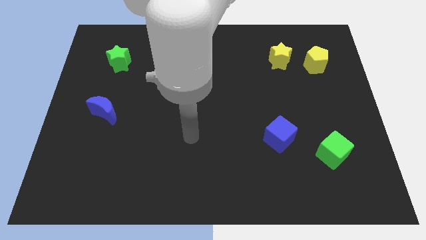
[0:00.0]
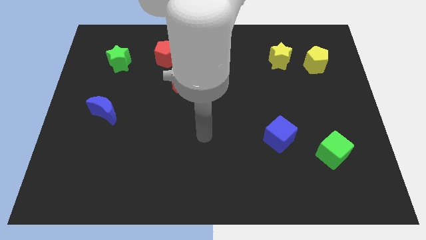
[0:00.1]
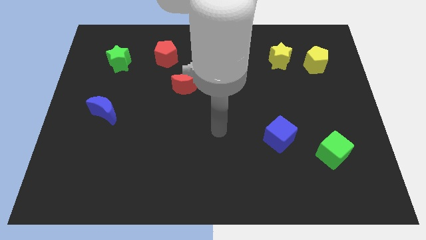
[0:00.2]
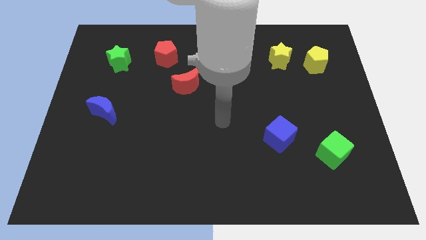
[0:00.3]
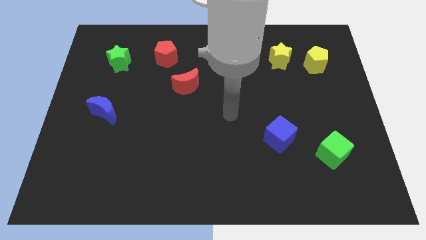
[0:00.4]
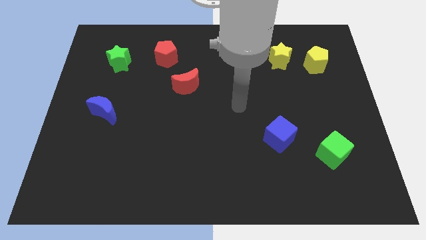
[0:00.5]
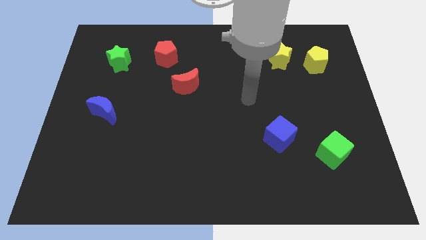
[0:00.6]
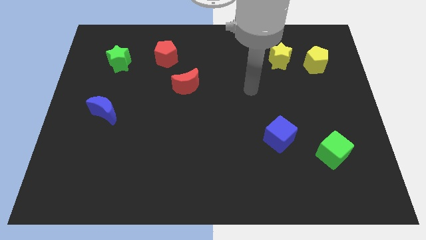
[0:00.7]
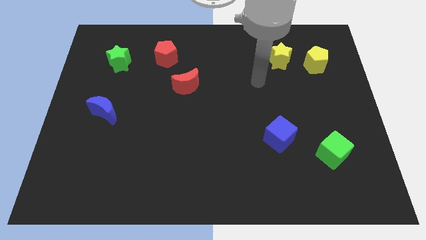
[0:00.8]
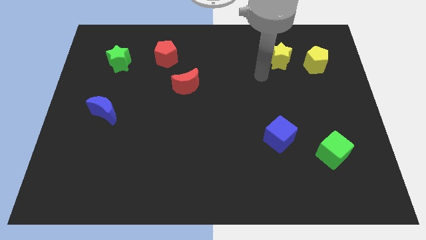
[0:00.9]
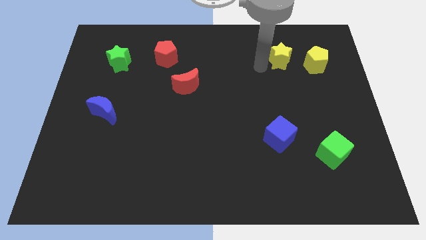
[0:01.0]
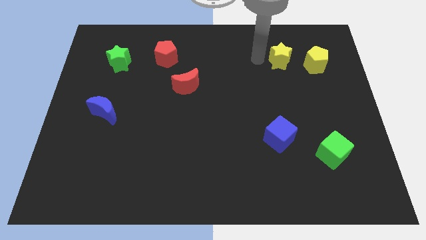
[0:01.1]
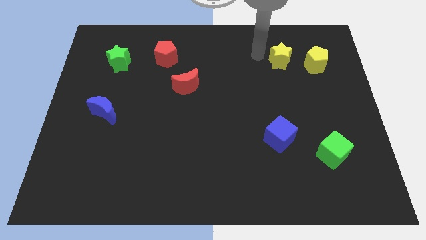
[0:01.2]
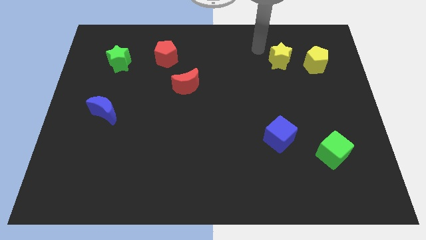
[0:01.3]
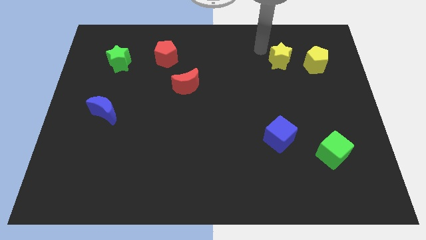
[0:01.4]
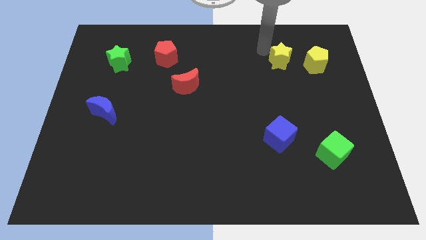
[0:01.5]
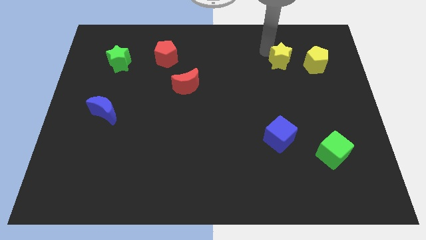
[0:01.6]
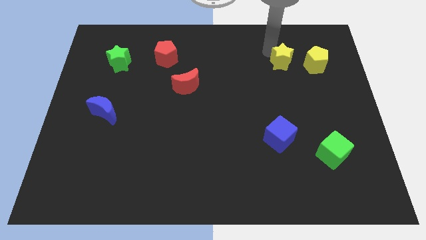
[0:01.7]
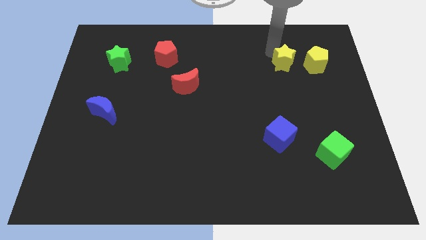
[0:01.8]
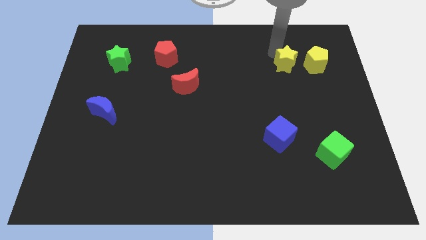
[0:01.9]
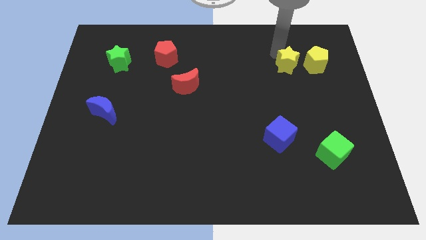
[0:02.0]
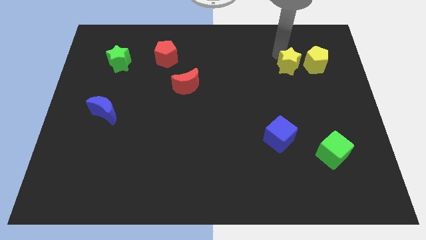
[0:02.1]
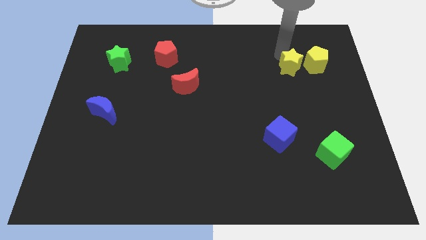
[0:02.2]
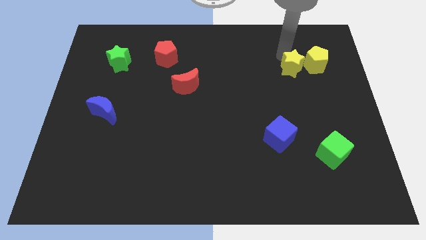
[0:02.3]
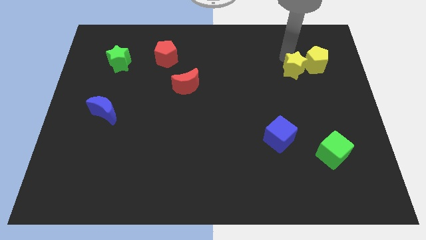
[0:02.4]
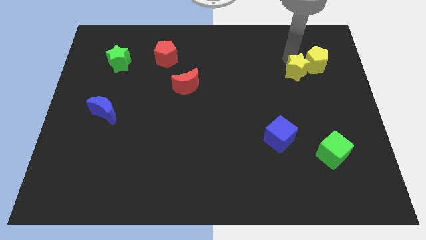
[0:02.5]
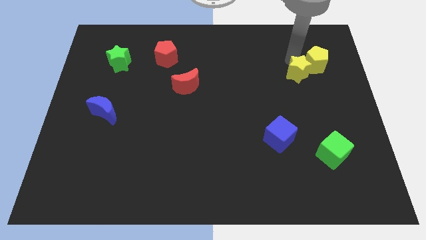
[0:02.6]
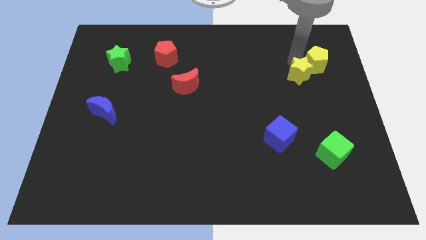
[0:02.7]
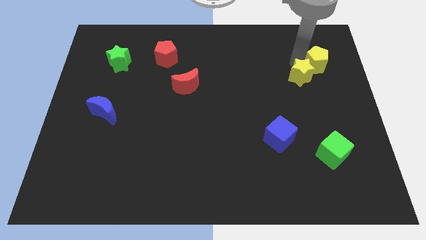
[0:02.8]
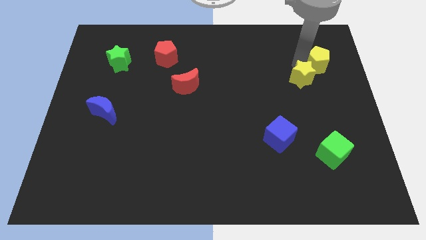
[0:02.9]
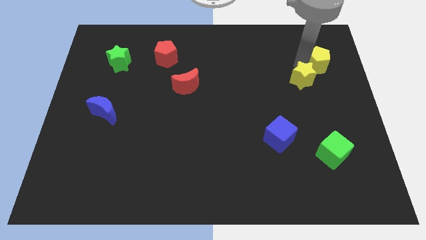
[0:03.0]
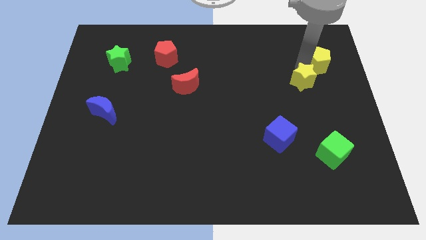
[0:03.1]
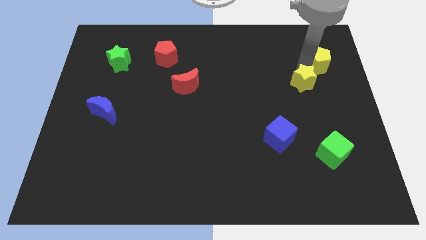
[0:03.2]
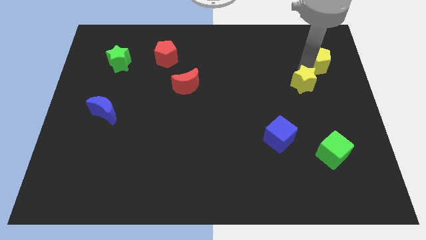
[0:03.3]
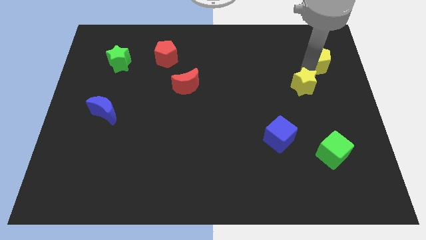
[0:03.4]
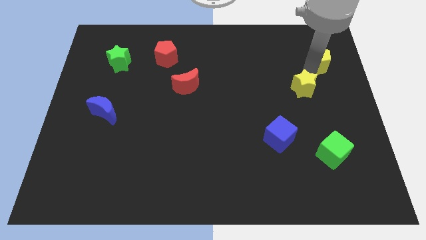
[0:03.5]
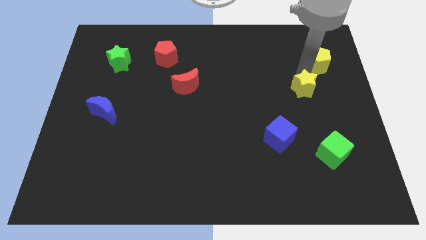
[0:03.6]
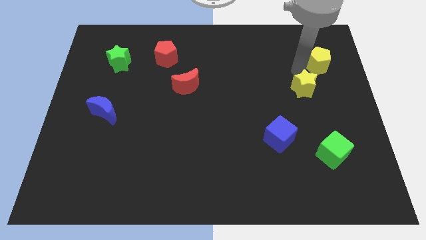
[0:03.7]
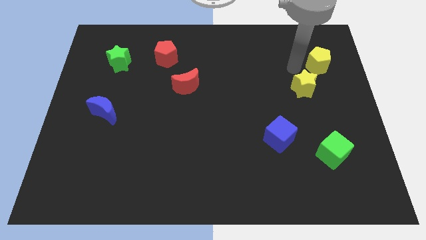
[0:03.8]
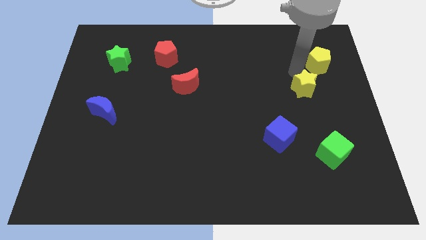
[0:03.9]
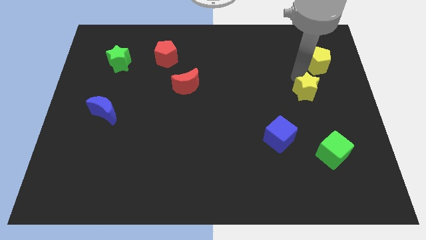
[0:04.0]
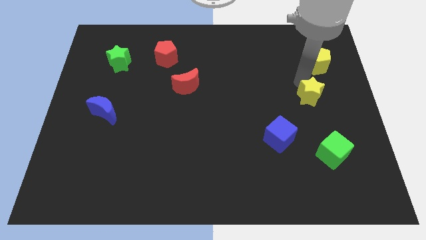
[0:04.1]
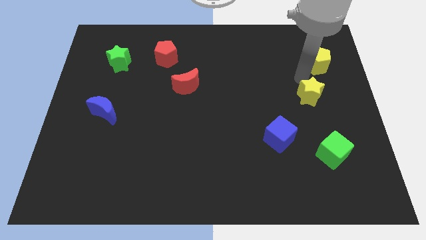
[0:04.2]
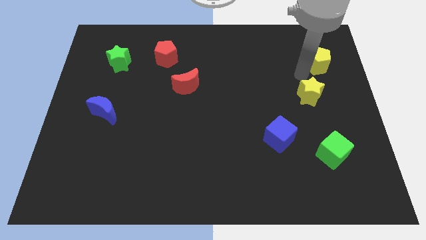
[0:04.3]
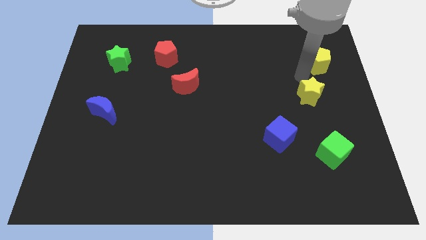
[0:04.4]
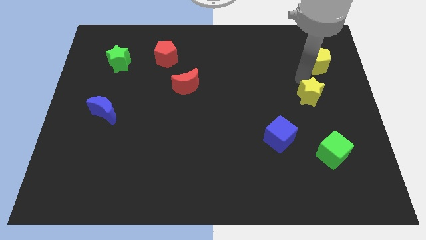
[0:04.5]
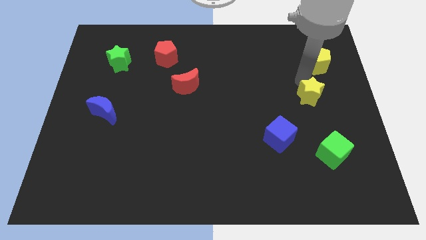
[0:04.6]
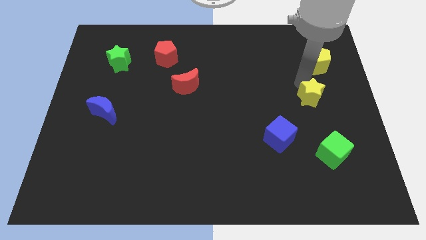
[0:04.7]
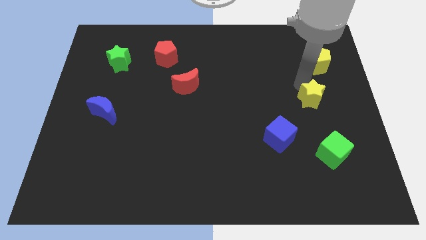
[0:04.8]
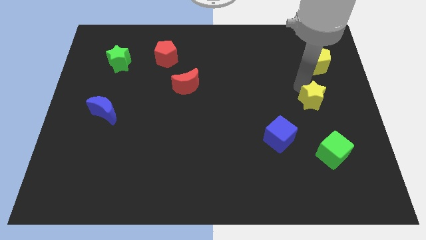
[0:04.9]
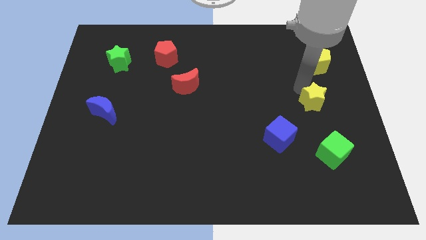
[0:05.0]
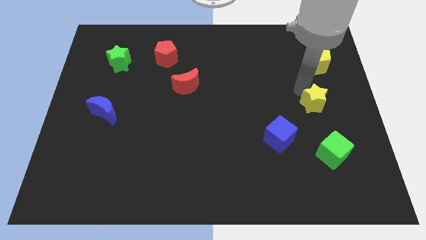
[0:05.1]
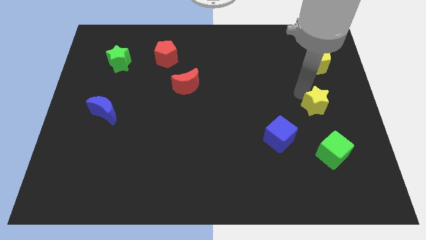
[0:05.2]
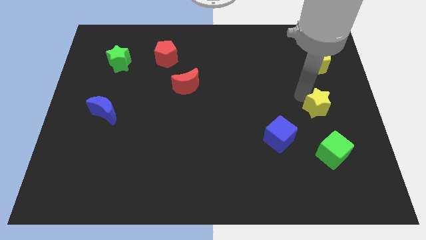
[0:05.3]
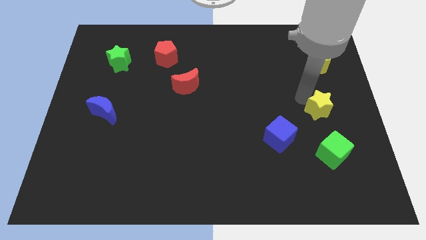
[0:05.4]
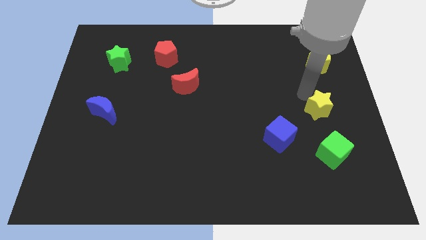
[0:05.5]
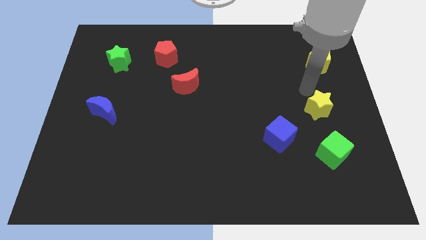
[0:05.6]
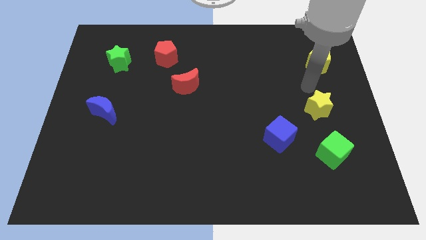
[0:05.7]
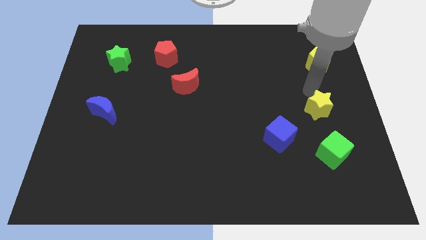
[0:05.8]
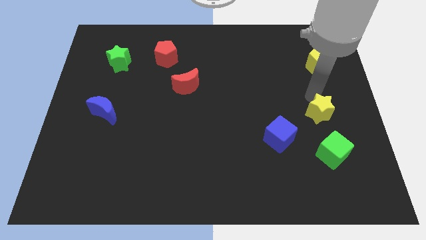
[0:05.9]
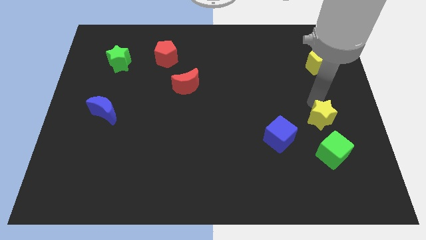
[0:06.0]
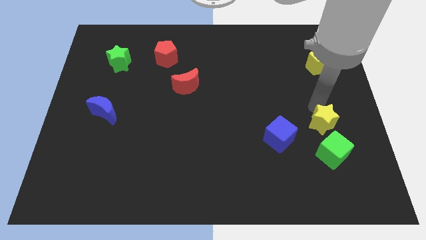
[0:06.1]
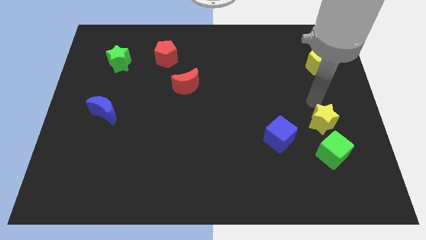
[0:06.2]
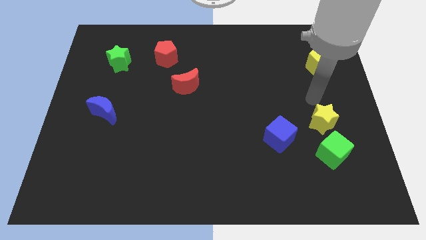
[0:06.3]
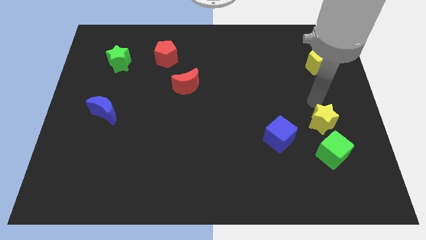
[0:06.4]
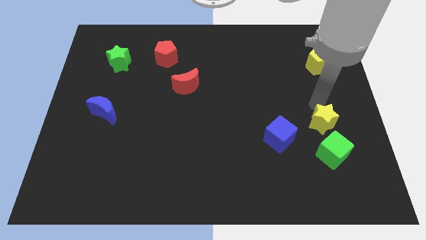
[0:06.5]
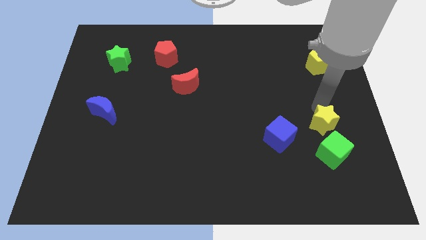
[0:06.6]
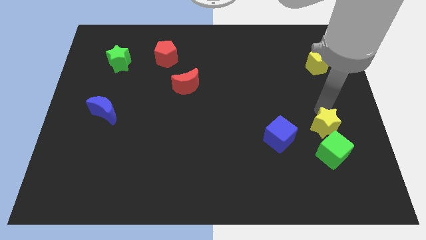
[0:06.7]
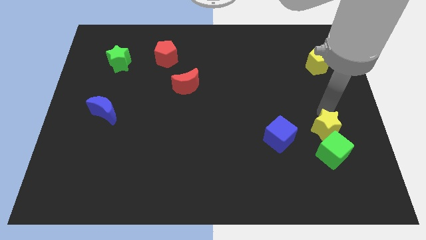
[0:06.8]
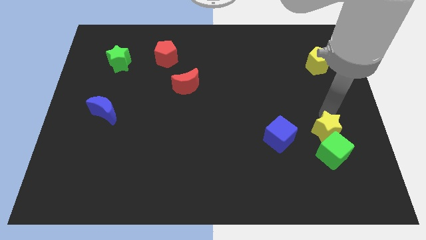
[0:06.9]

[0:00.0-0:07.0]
move the yellow star to the green cube

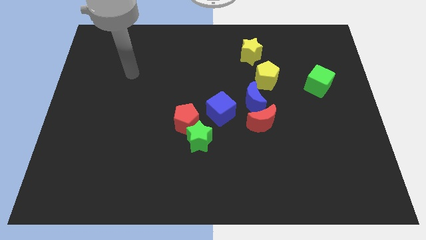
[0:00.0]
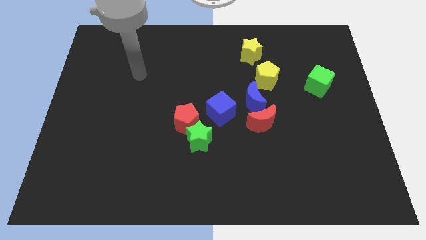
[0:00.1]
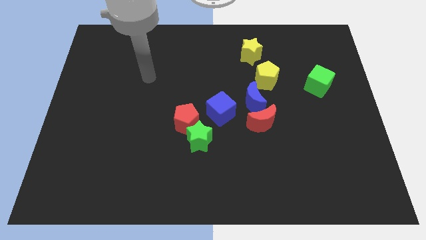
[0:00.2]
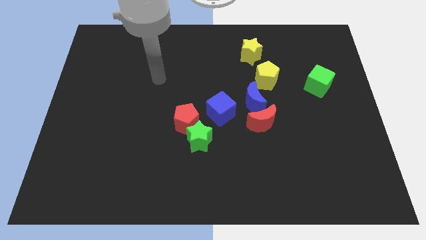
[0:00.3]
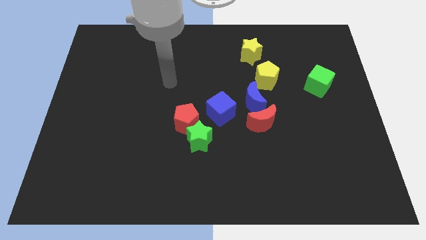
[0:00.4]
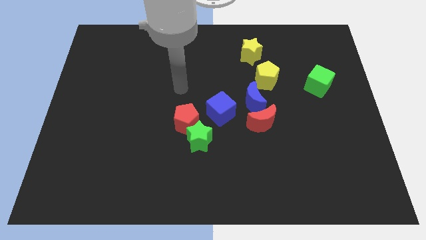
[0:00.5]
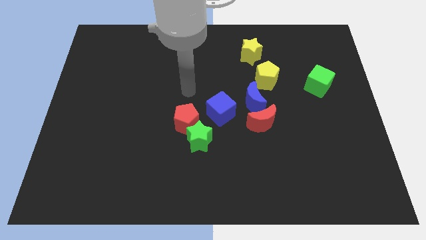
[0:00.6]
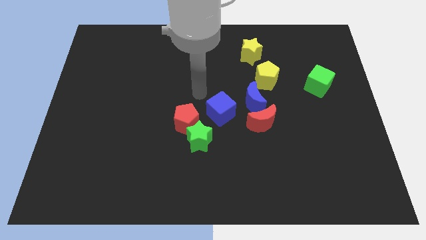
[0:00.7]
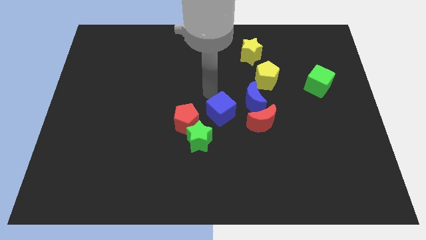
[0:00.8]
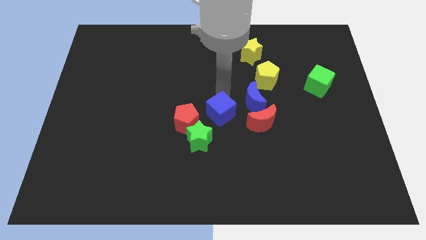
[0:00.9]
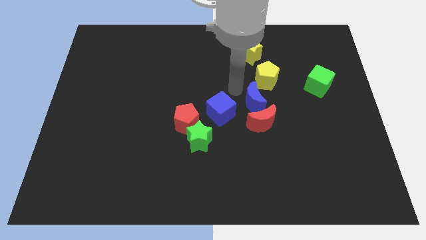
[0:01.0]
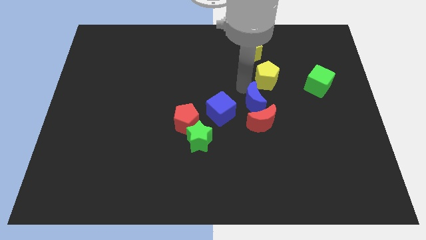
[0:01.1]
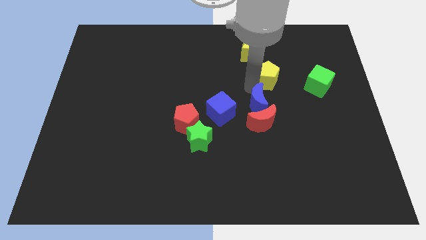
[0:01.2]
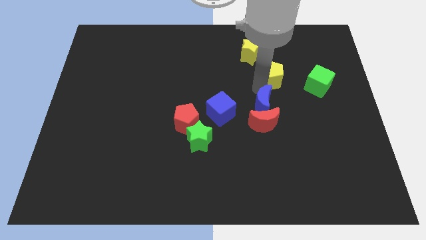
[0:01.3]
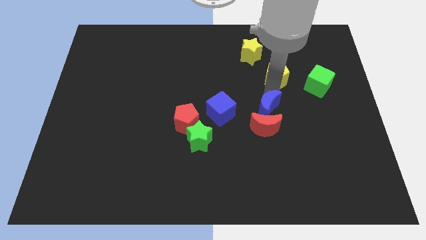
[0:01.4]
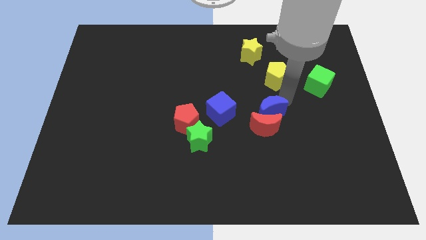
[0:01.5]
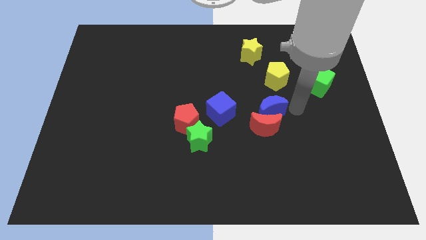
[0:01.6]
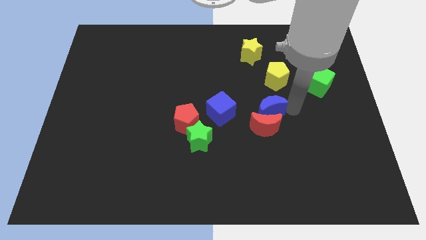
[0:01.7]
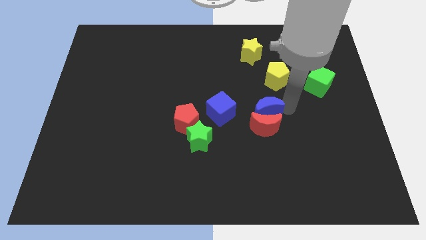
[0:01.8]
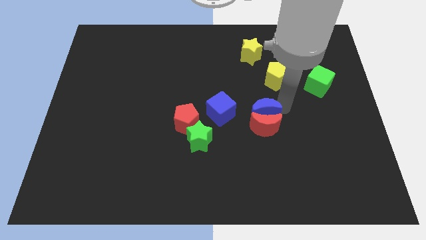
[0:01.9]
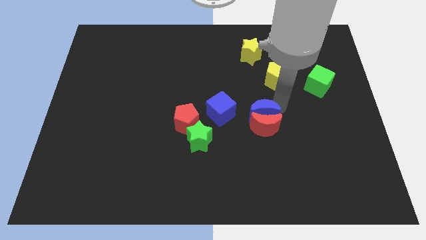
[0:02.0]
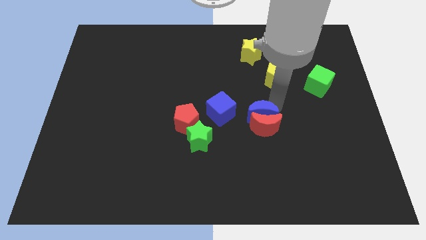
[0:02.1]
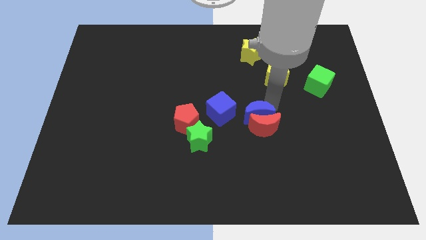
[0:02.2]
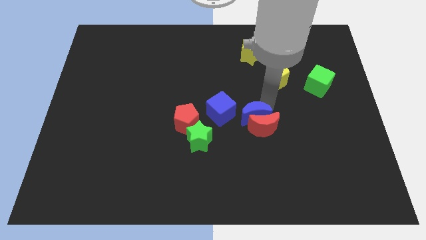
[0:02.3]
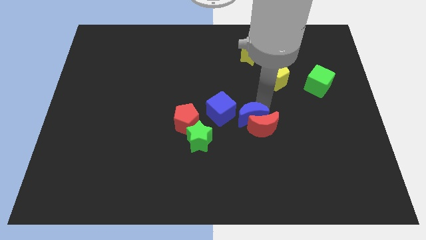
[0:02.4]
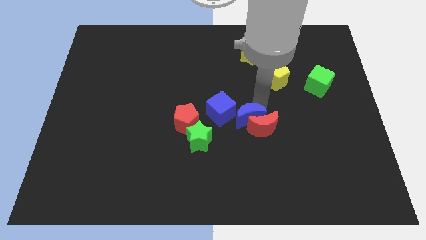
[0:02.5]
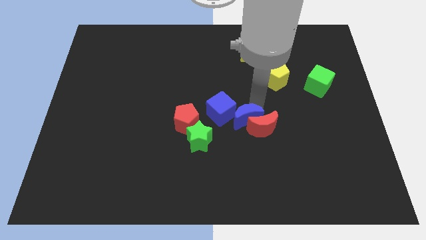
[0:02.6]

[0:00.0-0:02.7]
push the blue moon close to the blue cube
